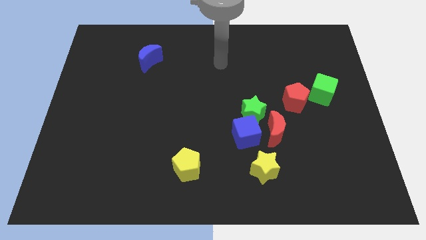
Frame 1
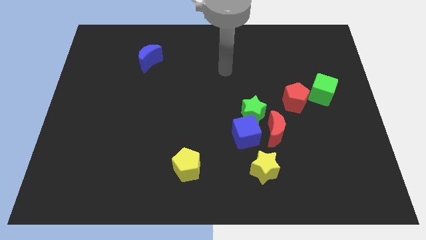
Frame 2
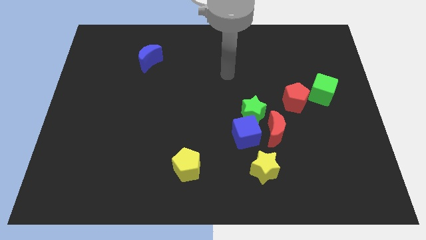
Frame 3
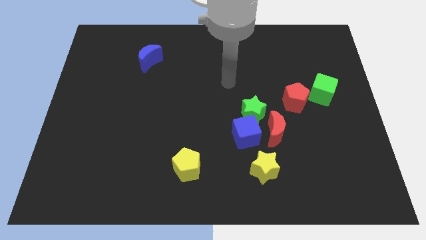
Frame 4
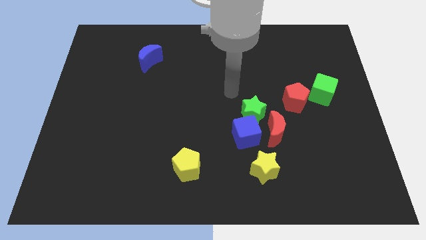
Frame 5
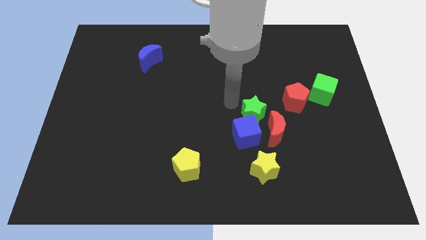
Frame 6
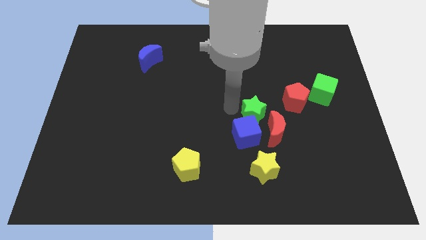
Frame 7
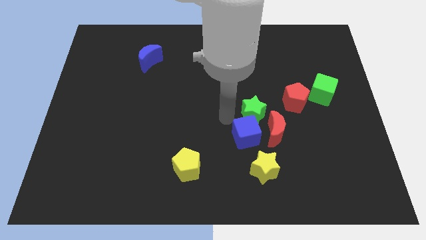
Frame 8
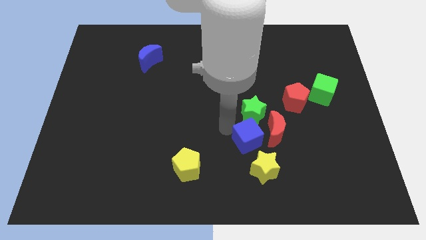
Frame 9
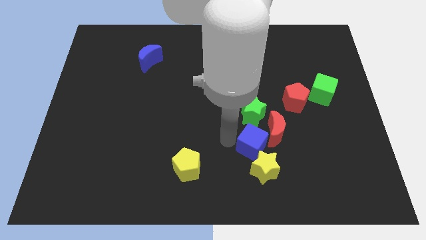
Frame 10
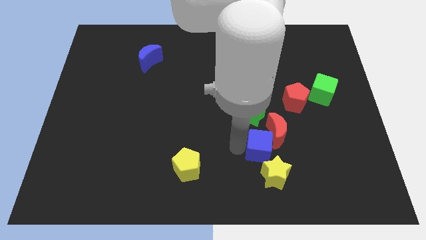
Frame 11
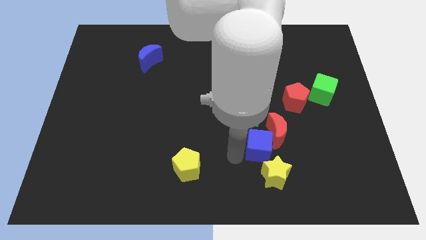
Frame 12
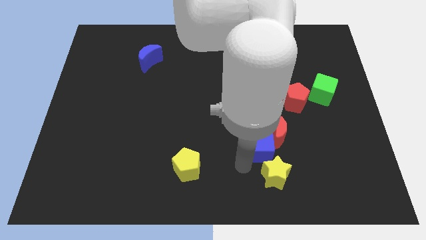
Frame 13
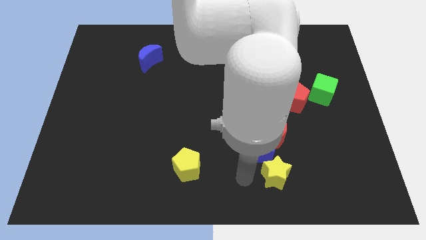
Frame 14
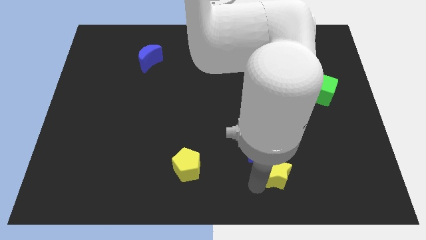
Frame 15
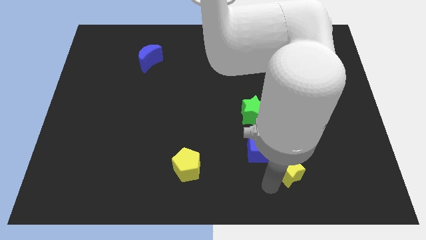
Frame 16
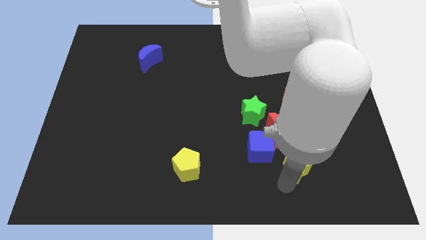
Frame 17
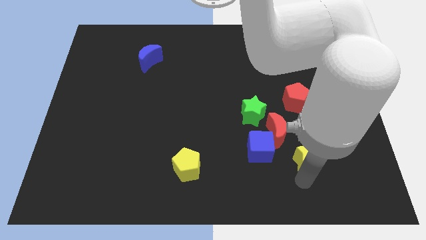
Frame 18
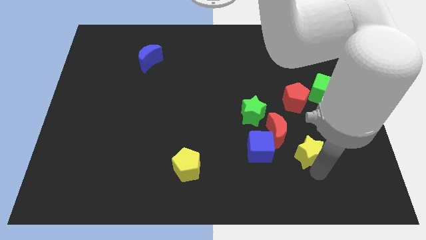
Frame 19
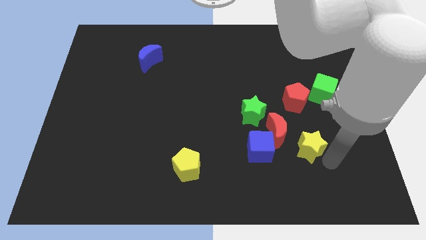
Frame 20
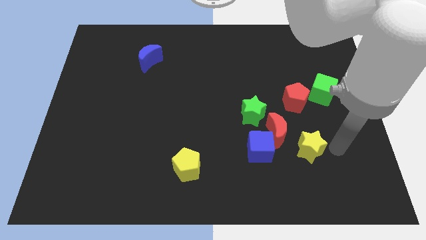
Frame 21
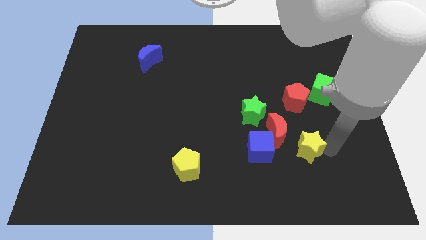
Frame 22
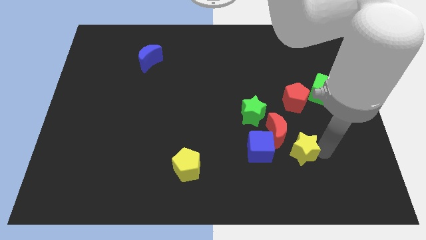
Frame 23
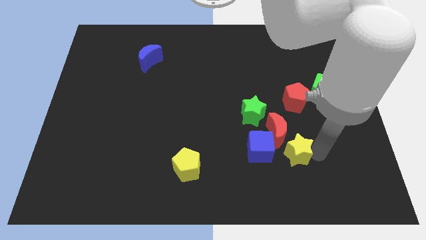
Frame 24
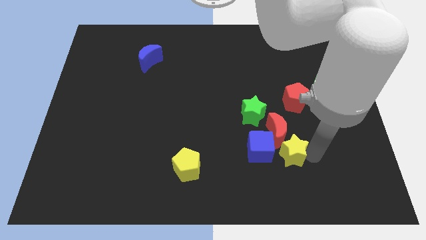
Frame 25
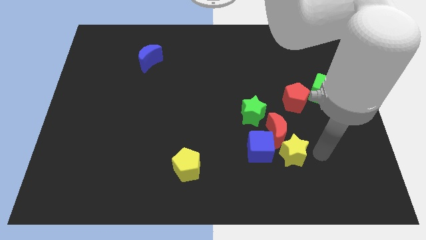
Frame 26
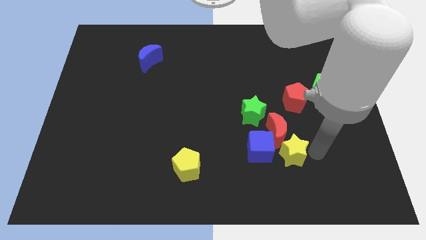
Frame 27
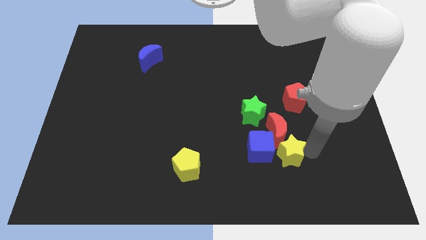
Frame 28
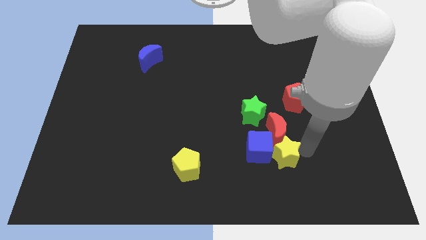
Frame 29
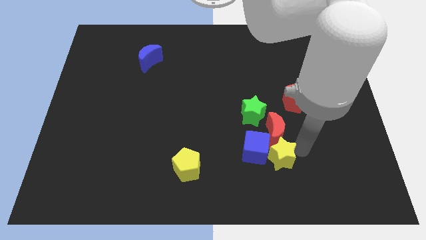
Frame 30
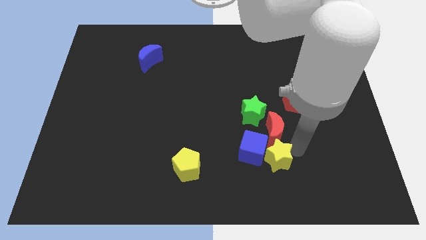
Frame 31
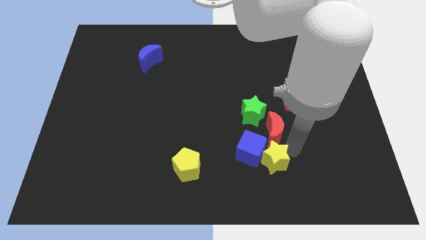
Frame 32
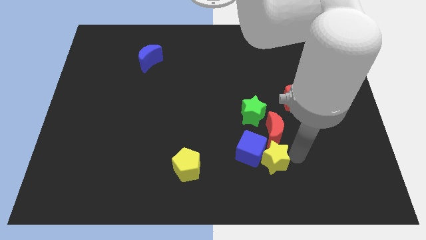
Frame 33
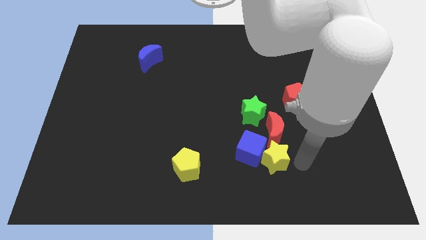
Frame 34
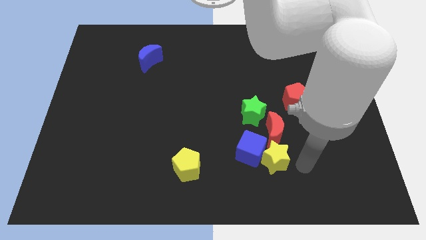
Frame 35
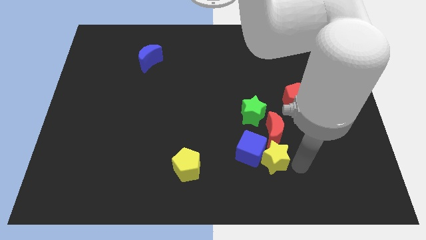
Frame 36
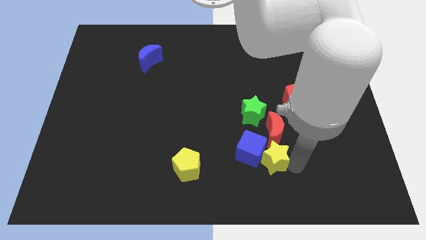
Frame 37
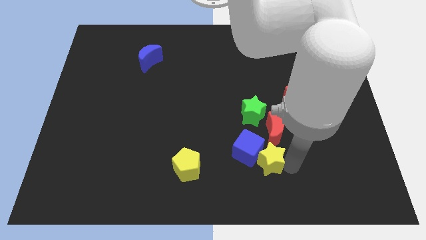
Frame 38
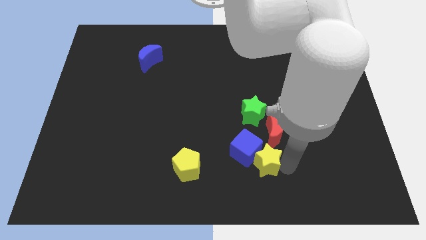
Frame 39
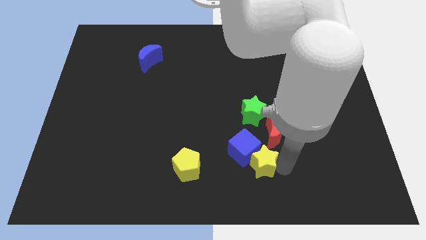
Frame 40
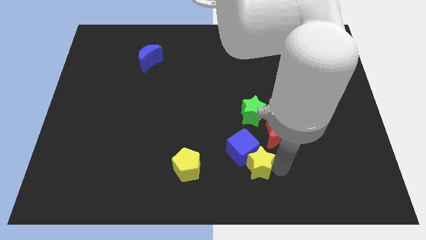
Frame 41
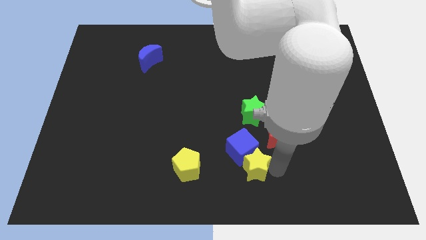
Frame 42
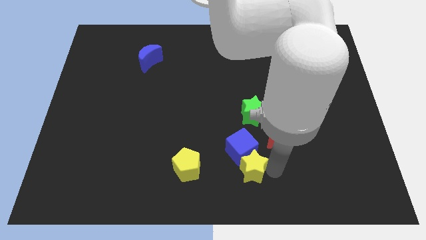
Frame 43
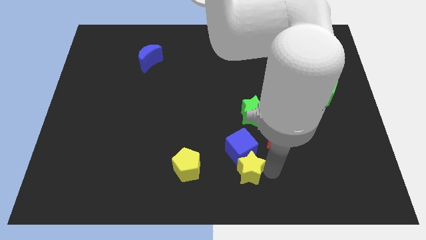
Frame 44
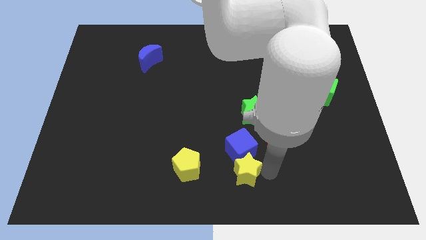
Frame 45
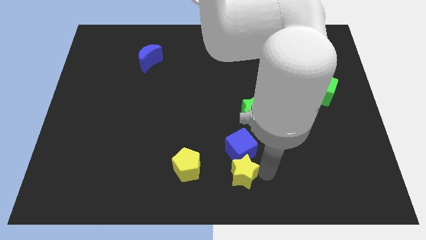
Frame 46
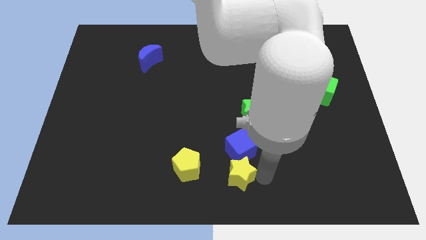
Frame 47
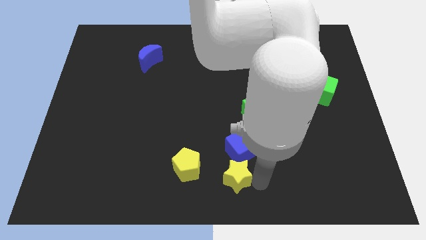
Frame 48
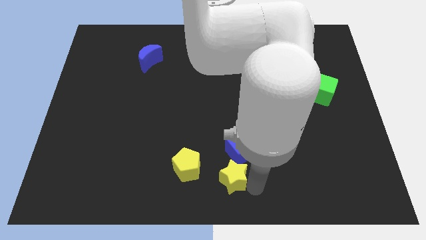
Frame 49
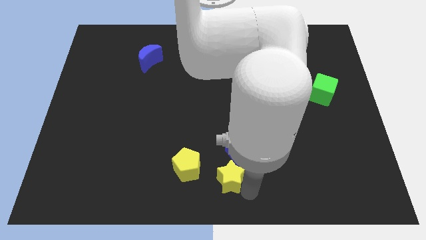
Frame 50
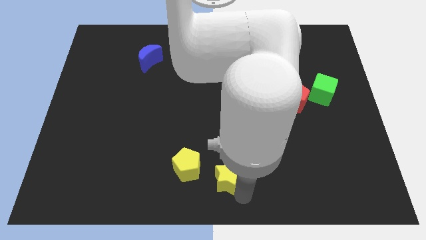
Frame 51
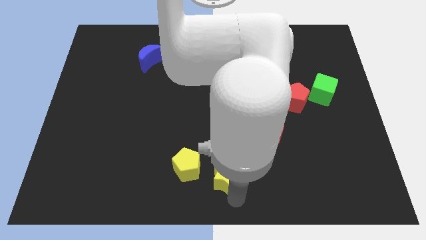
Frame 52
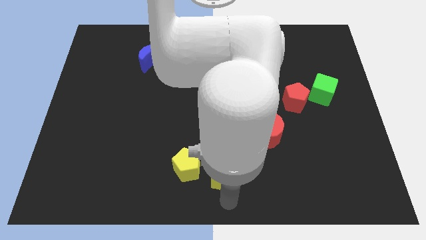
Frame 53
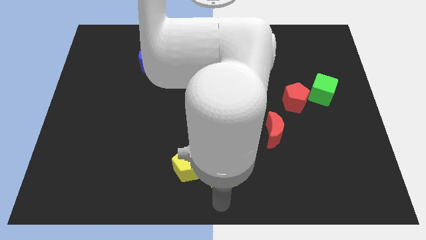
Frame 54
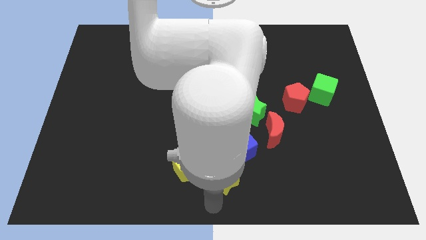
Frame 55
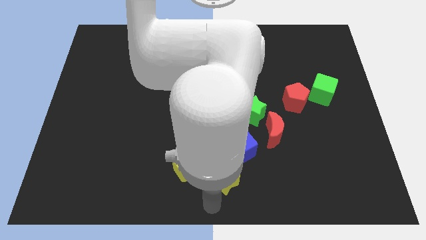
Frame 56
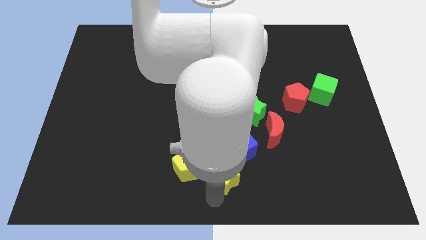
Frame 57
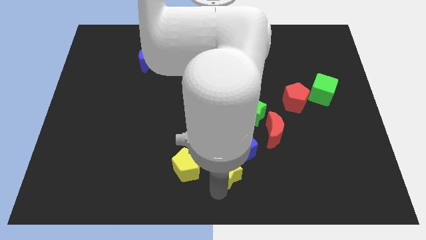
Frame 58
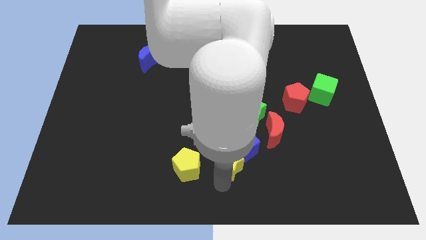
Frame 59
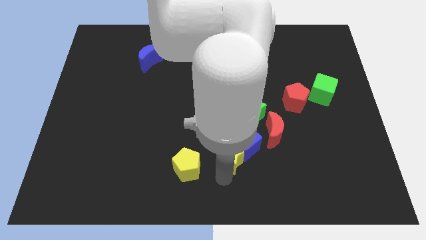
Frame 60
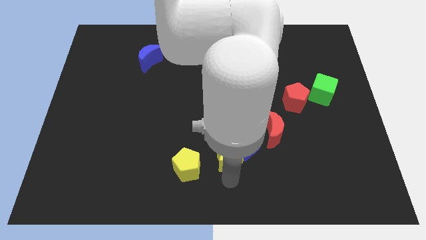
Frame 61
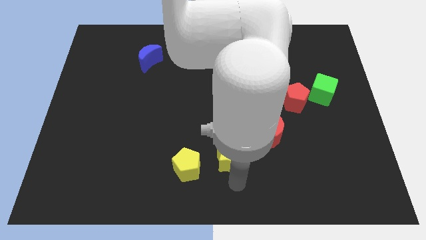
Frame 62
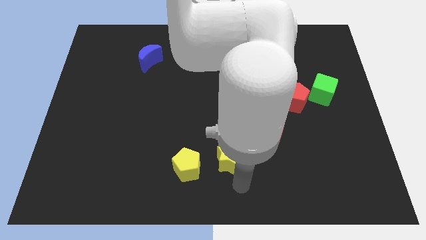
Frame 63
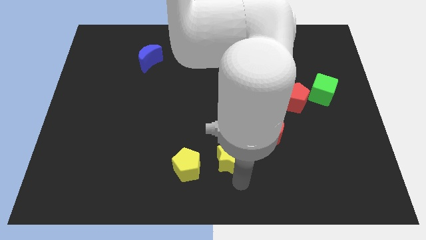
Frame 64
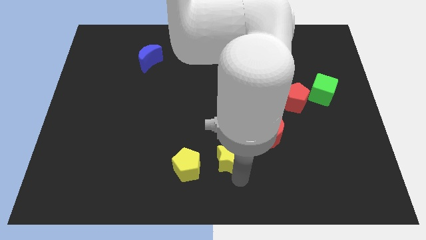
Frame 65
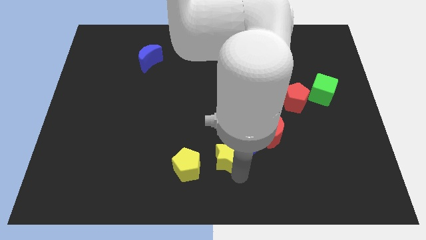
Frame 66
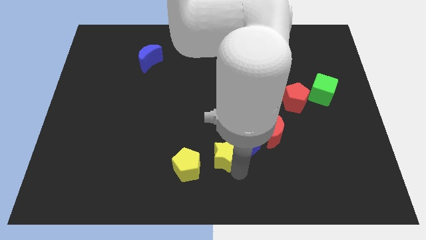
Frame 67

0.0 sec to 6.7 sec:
slightly push the yellow star upwards and then left

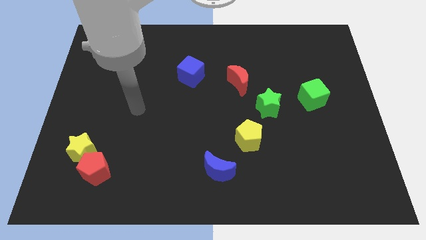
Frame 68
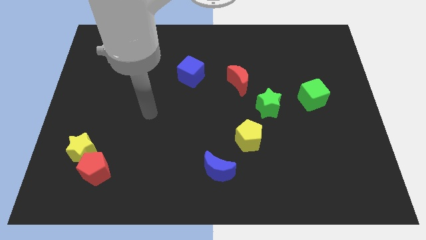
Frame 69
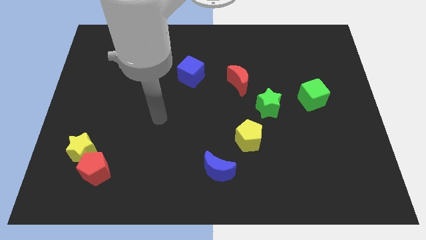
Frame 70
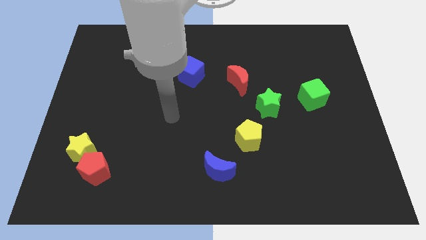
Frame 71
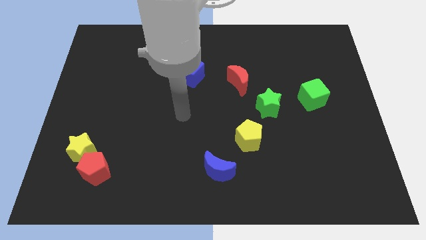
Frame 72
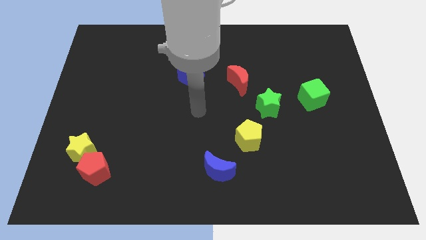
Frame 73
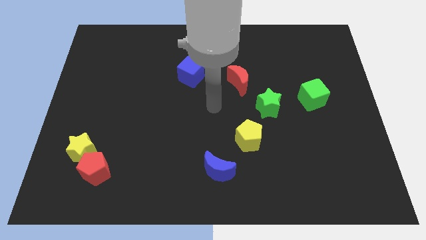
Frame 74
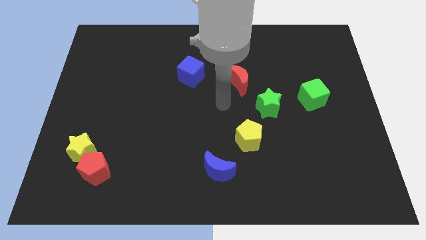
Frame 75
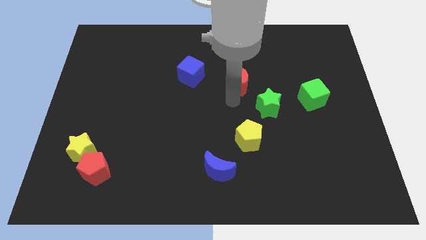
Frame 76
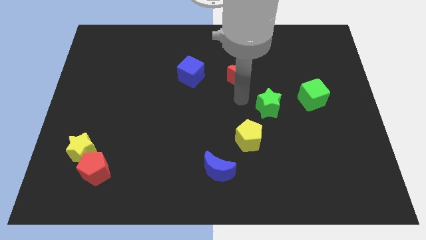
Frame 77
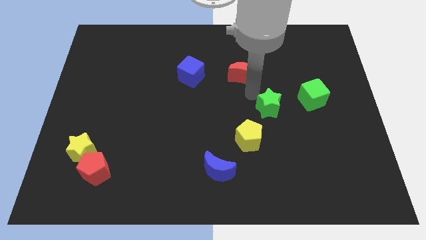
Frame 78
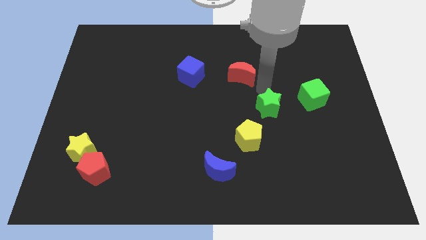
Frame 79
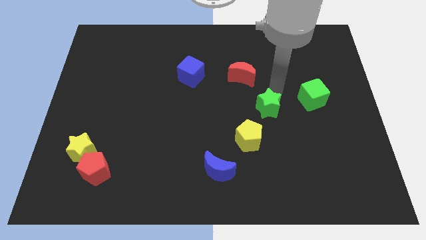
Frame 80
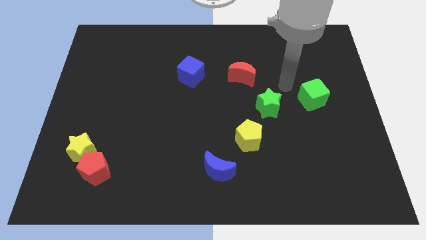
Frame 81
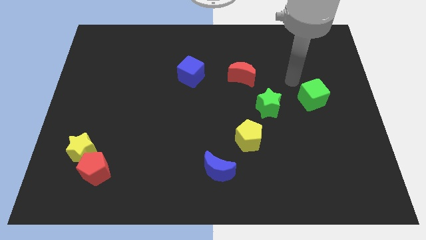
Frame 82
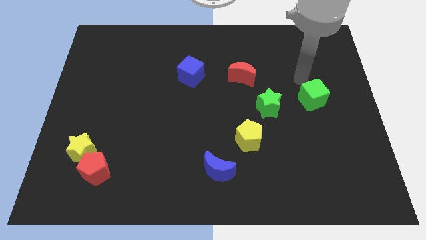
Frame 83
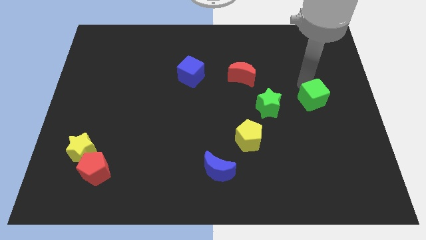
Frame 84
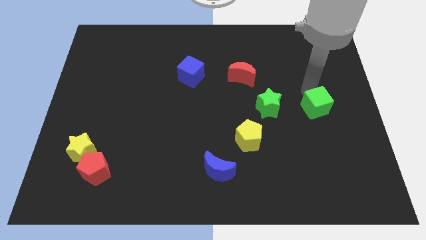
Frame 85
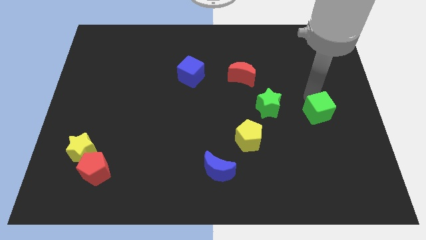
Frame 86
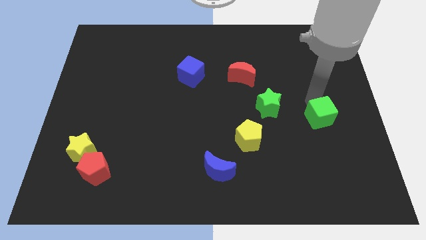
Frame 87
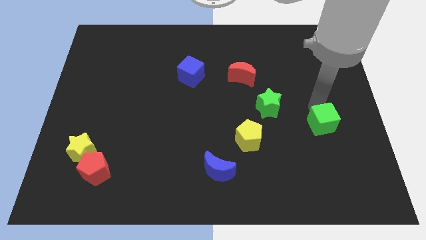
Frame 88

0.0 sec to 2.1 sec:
push the green cube down a little
